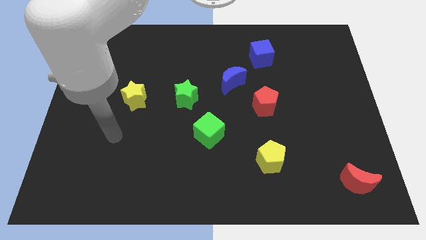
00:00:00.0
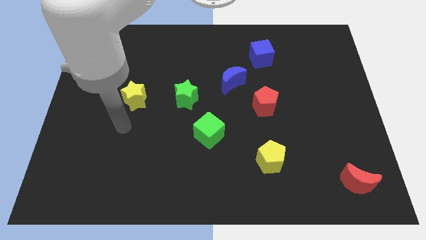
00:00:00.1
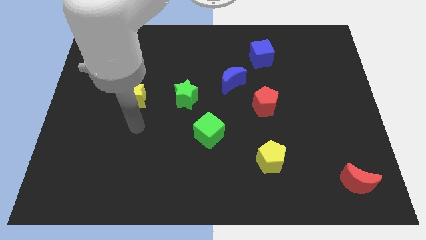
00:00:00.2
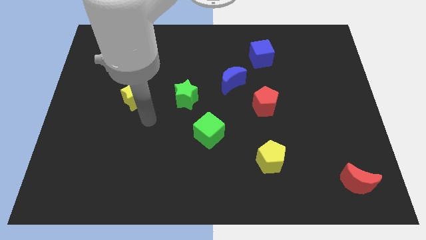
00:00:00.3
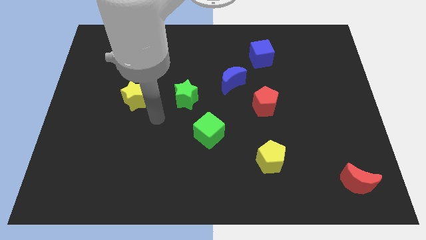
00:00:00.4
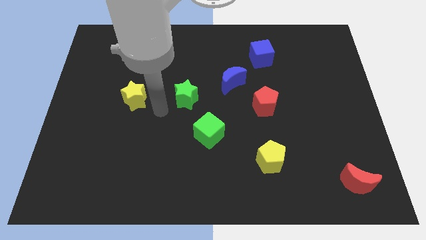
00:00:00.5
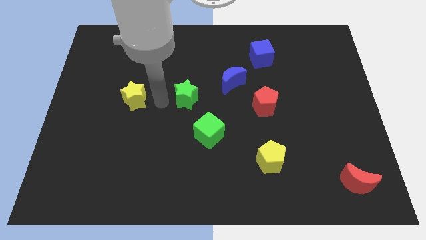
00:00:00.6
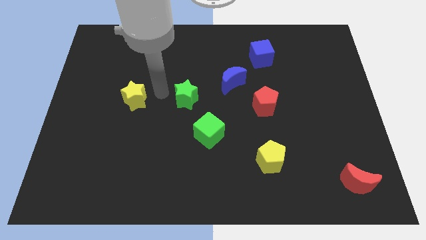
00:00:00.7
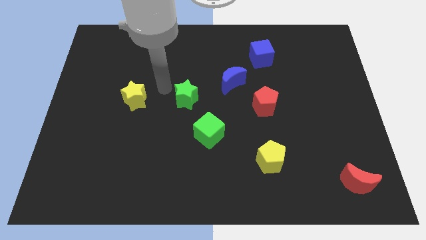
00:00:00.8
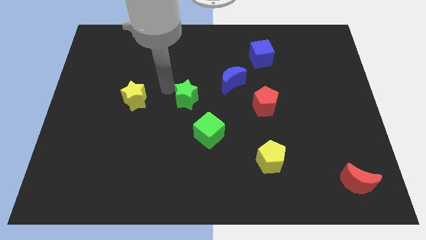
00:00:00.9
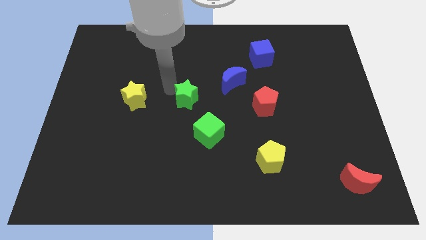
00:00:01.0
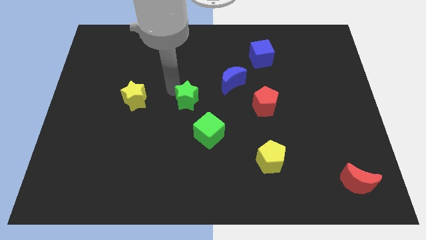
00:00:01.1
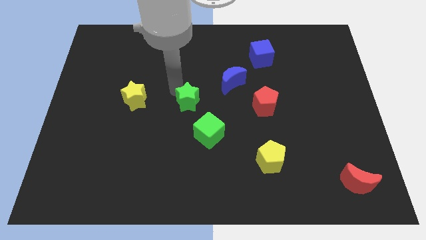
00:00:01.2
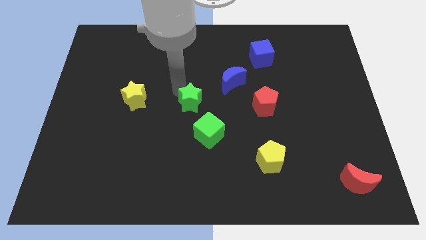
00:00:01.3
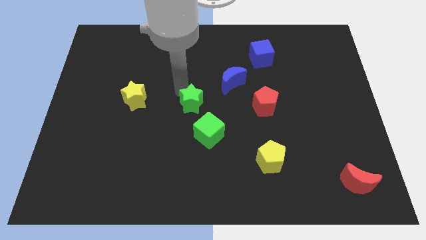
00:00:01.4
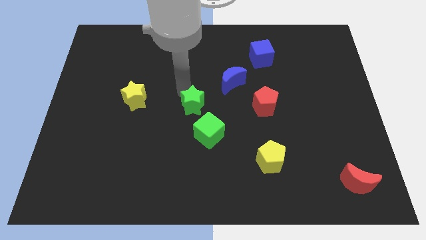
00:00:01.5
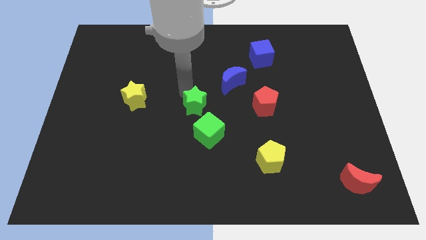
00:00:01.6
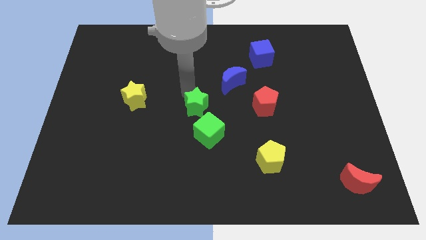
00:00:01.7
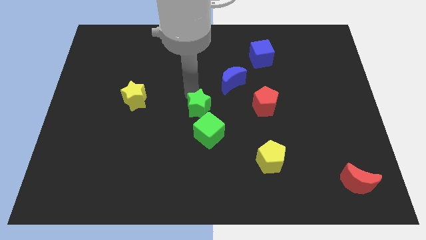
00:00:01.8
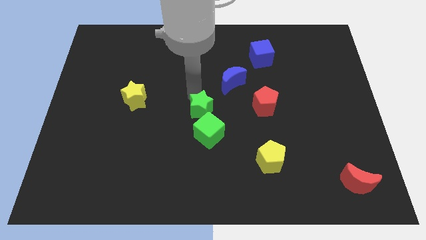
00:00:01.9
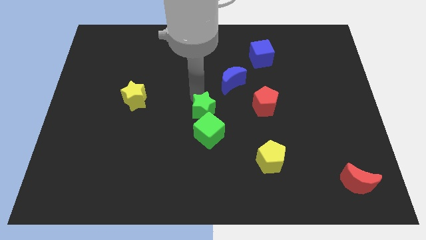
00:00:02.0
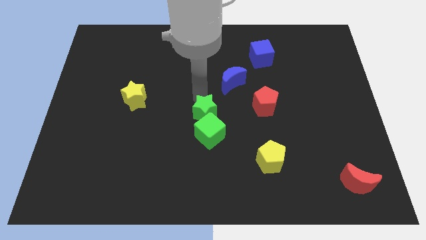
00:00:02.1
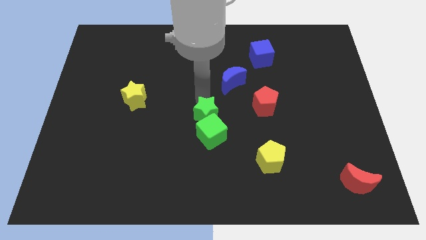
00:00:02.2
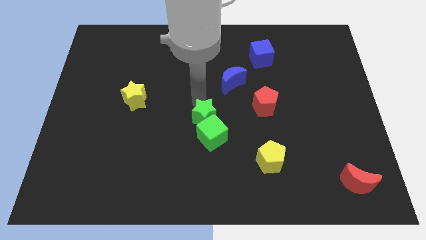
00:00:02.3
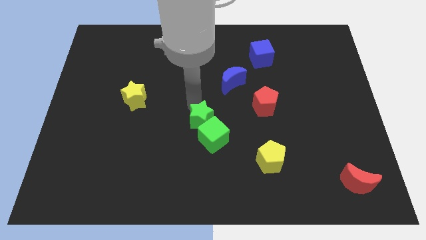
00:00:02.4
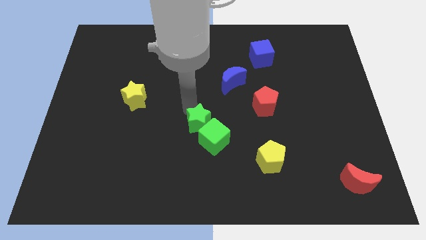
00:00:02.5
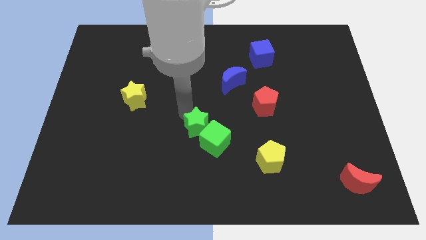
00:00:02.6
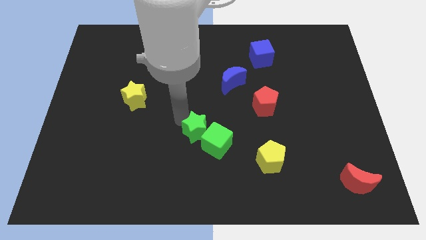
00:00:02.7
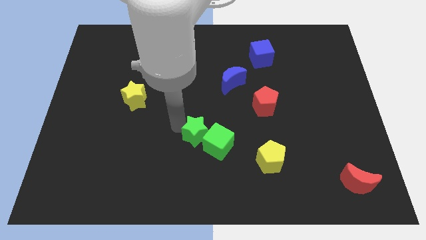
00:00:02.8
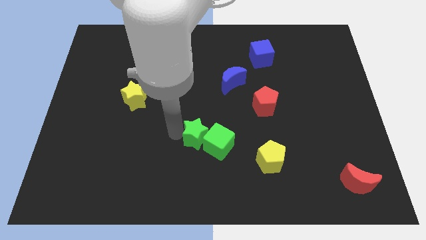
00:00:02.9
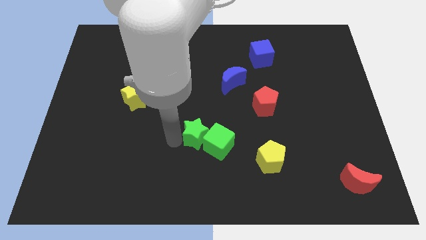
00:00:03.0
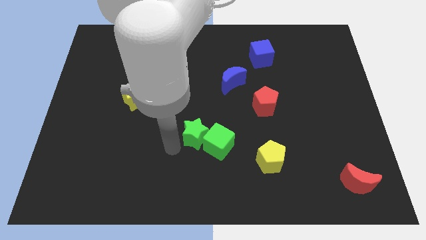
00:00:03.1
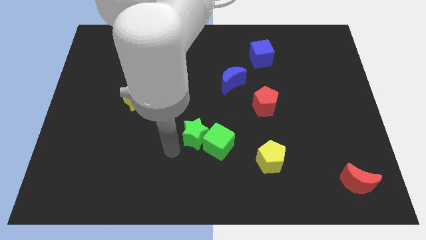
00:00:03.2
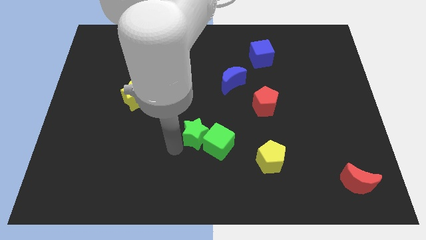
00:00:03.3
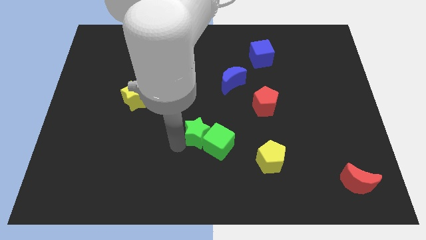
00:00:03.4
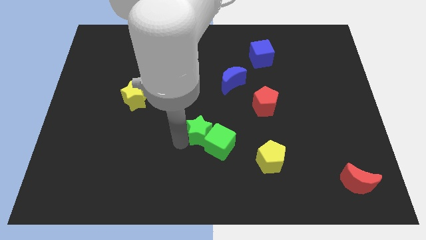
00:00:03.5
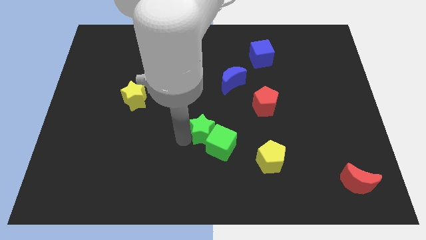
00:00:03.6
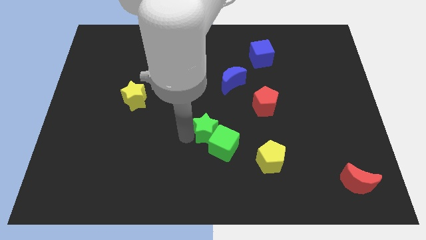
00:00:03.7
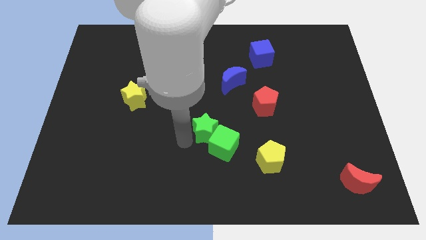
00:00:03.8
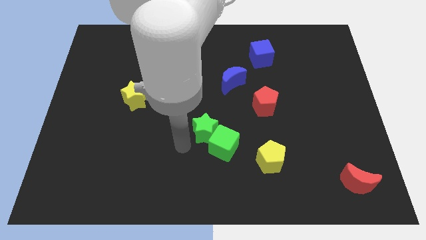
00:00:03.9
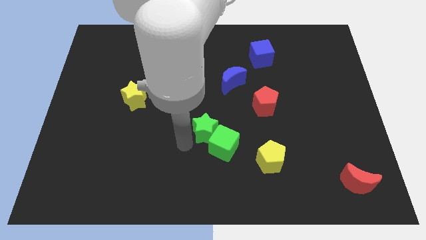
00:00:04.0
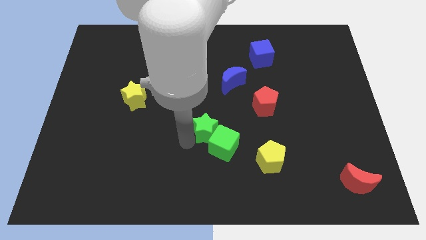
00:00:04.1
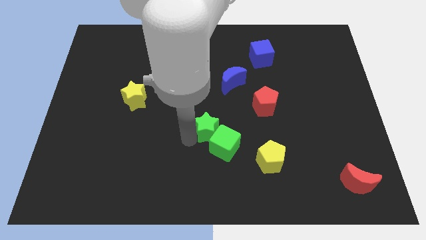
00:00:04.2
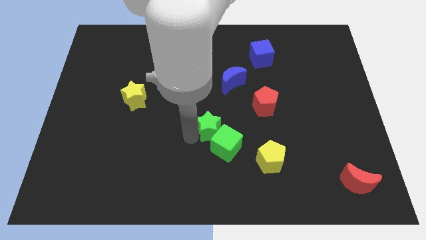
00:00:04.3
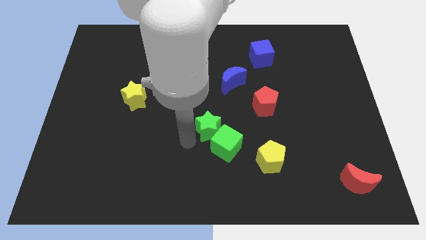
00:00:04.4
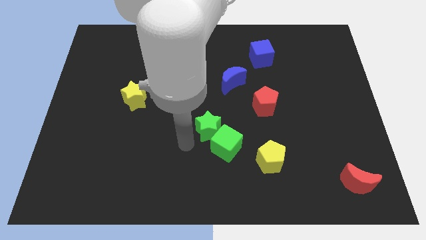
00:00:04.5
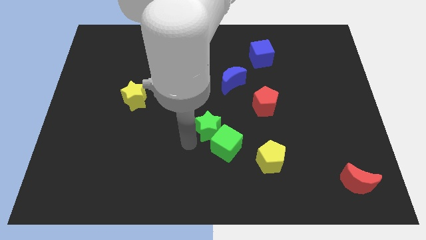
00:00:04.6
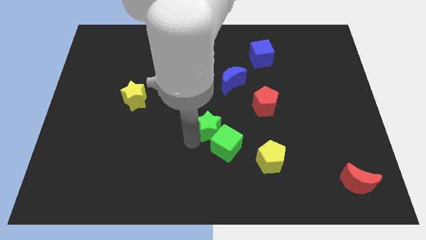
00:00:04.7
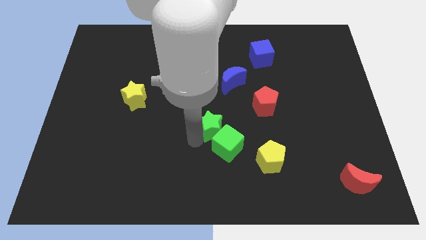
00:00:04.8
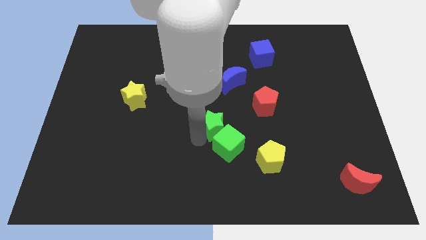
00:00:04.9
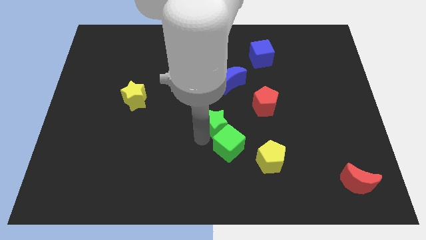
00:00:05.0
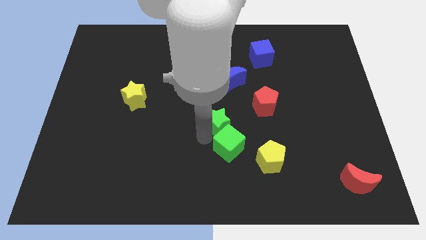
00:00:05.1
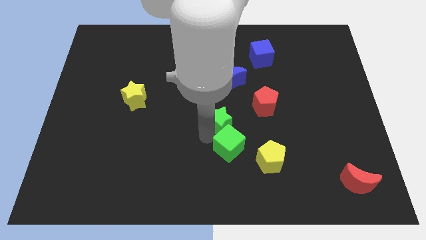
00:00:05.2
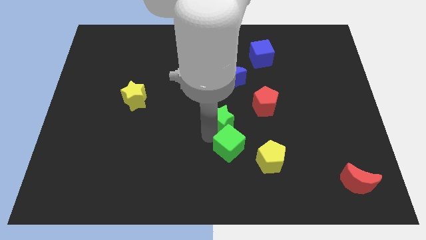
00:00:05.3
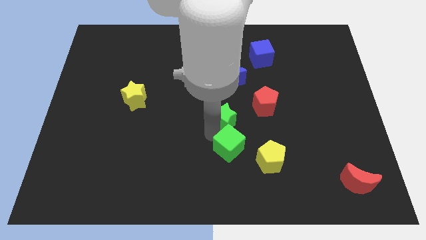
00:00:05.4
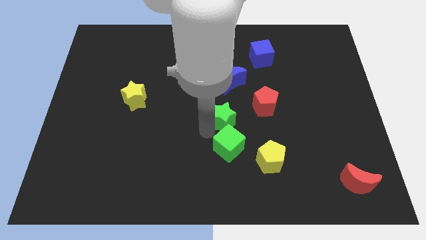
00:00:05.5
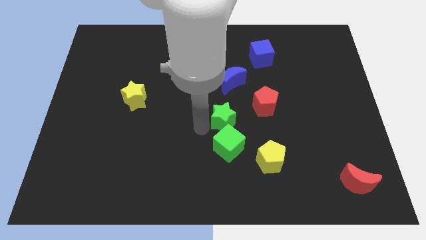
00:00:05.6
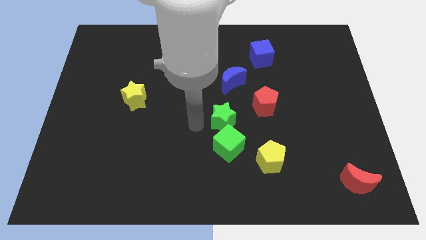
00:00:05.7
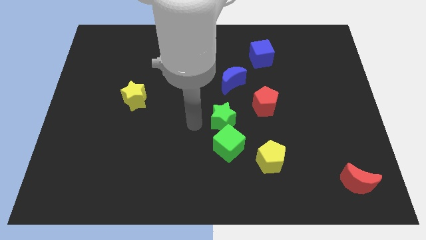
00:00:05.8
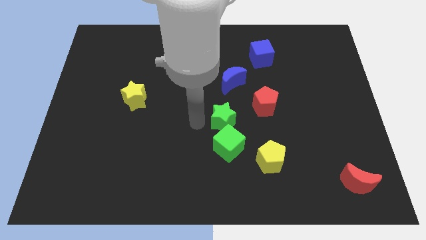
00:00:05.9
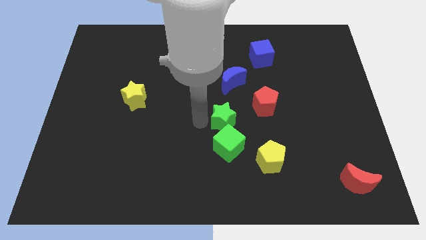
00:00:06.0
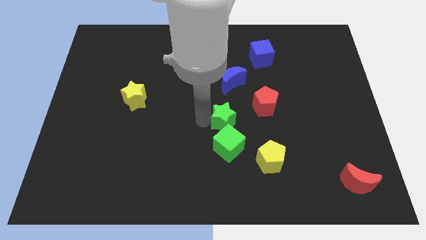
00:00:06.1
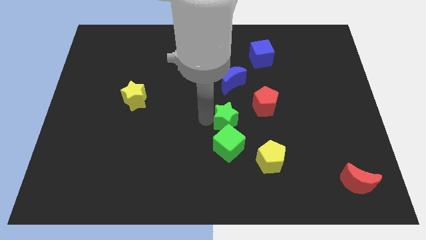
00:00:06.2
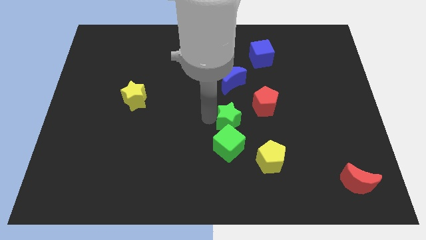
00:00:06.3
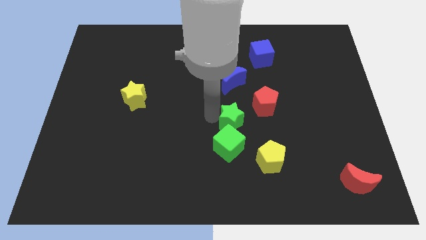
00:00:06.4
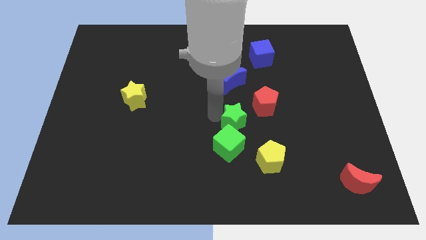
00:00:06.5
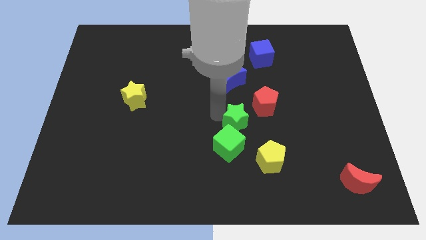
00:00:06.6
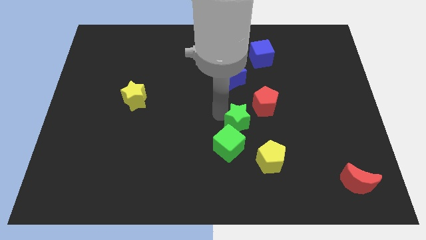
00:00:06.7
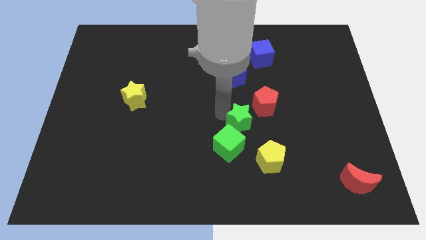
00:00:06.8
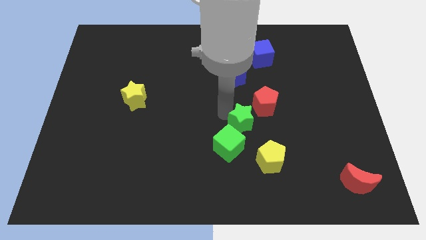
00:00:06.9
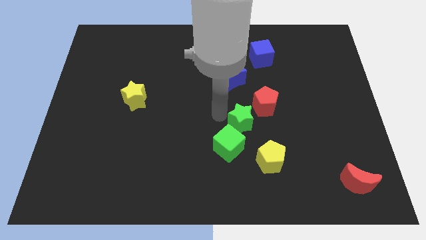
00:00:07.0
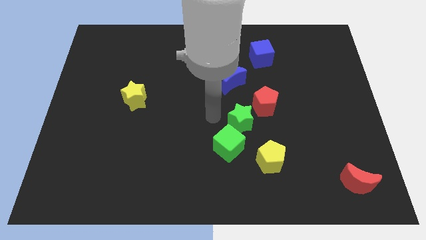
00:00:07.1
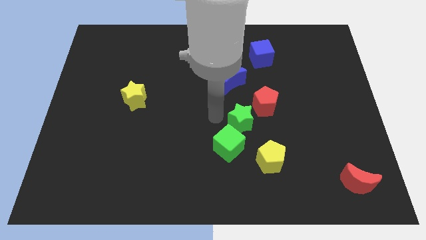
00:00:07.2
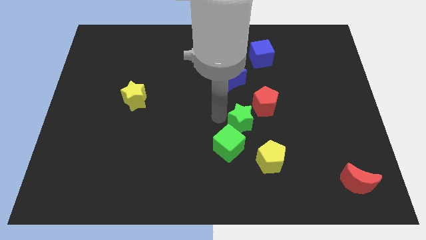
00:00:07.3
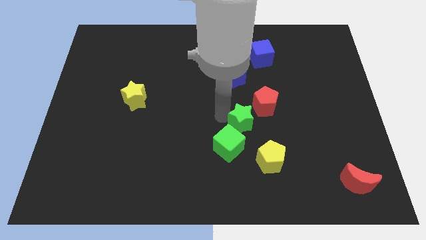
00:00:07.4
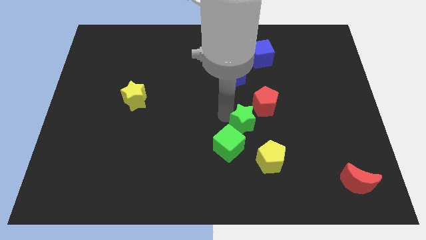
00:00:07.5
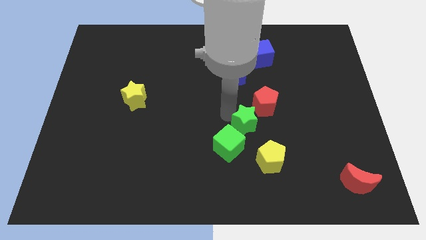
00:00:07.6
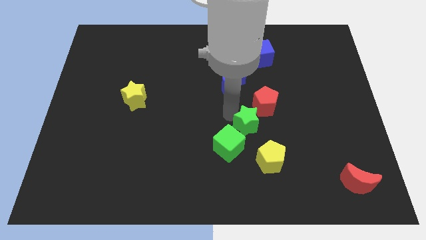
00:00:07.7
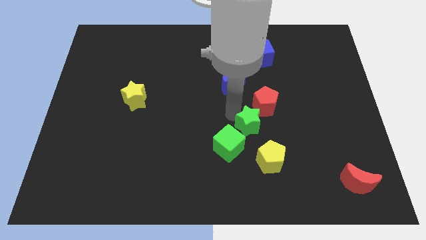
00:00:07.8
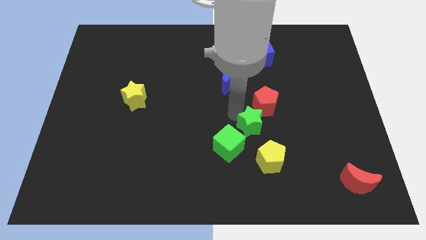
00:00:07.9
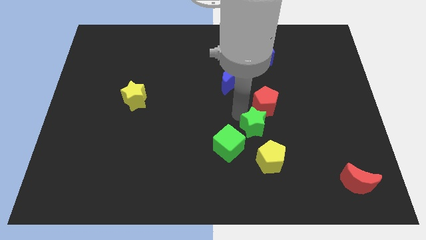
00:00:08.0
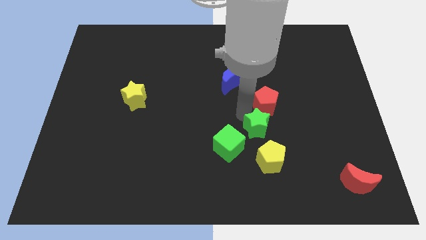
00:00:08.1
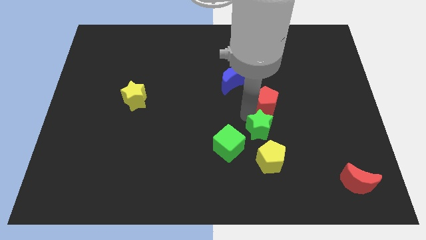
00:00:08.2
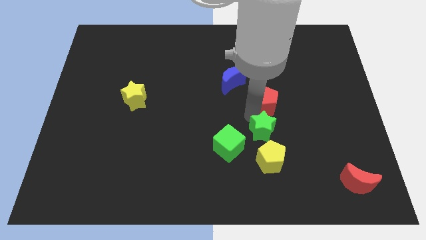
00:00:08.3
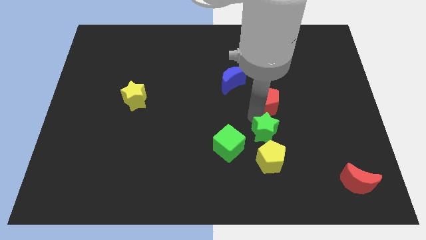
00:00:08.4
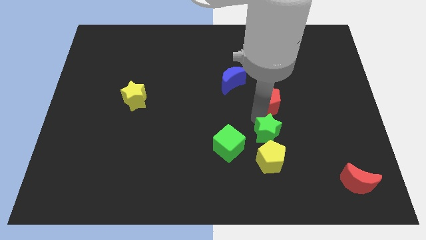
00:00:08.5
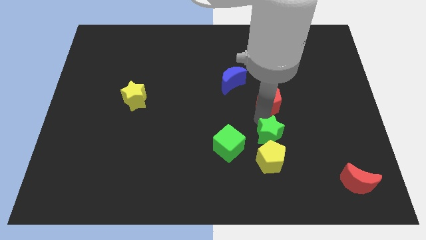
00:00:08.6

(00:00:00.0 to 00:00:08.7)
move the green star diagonally up and to the right of the yellow pentagon
